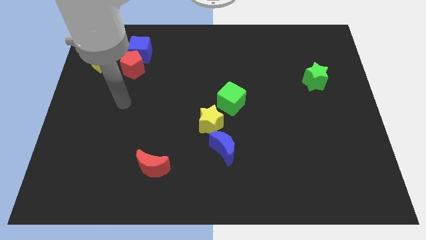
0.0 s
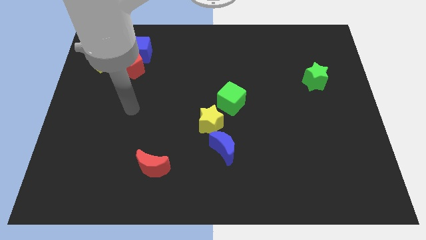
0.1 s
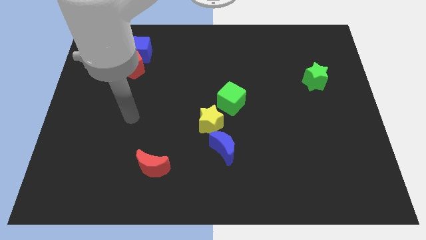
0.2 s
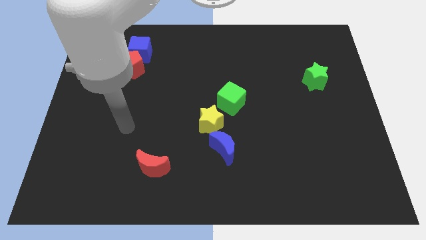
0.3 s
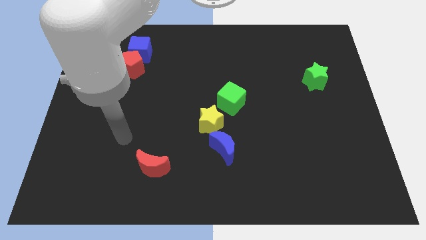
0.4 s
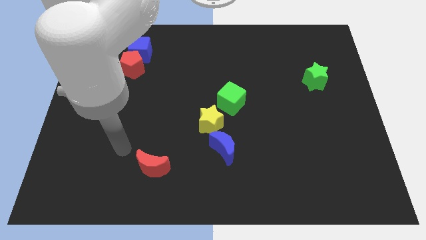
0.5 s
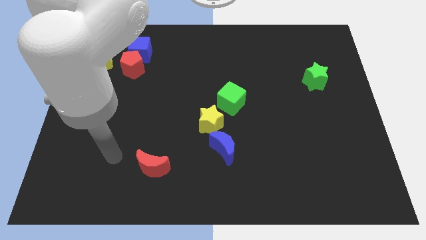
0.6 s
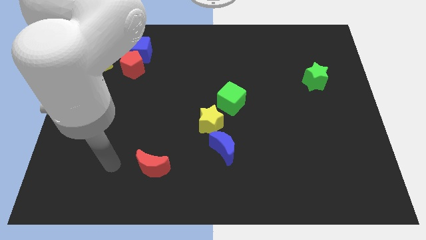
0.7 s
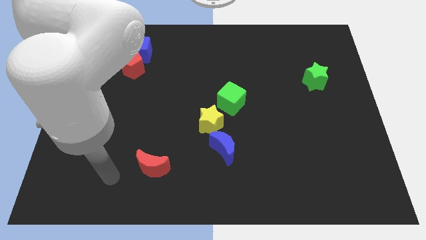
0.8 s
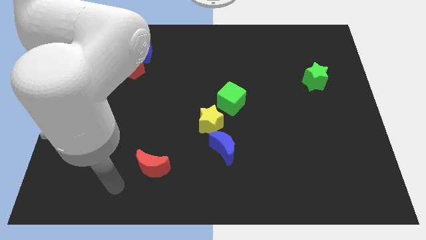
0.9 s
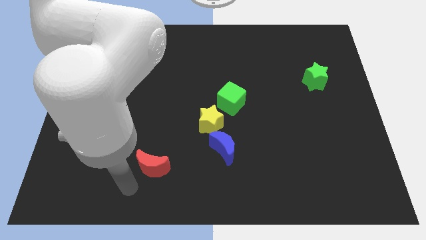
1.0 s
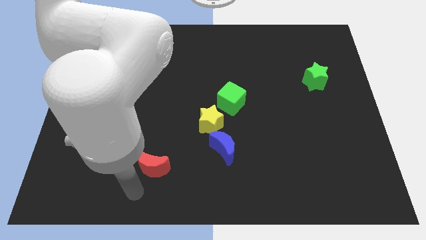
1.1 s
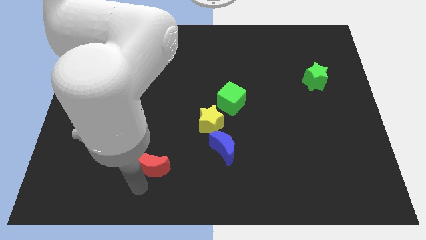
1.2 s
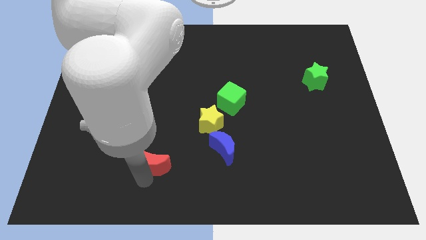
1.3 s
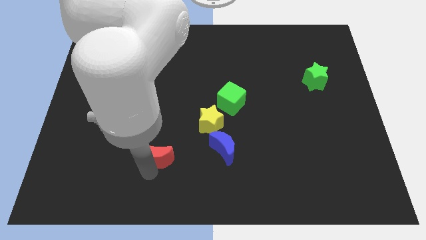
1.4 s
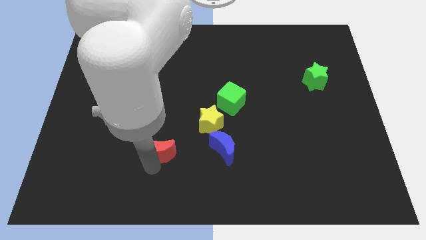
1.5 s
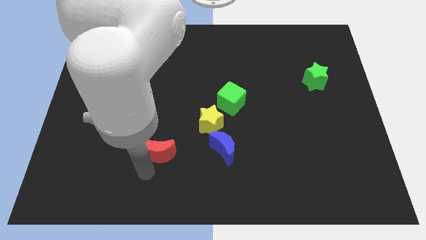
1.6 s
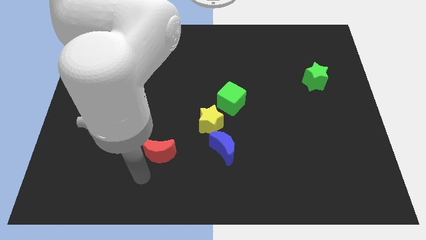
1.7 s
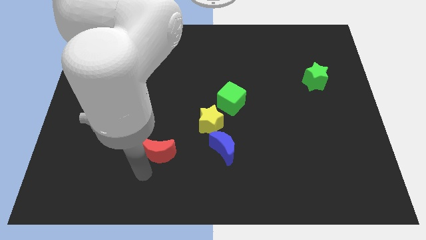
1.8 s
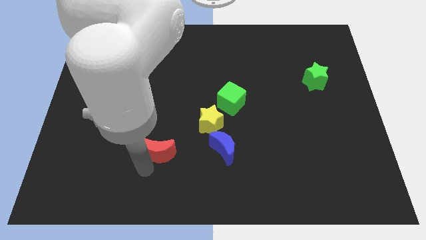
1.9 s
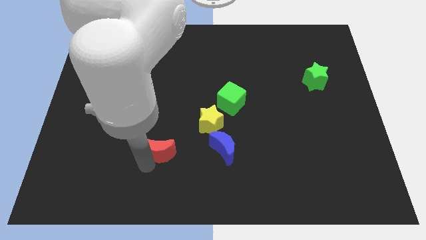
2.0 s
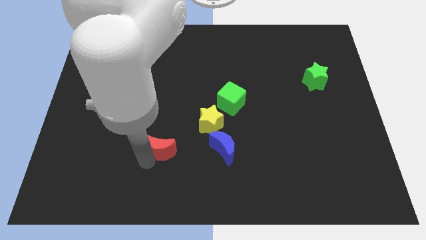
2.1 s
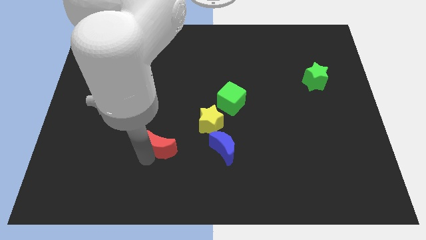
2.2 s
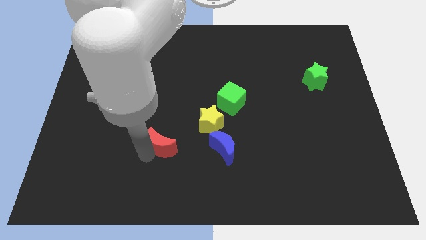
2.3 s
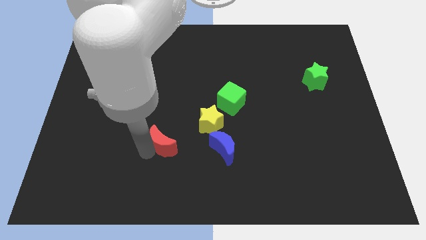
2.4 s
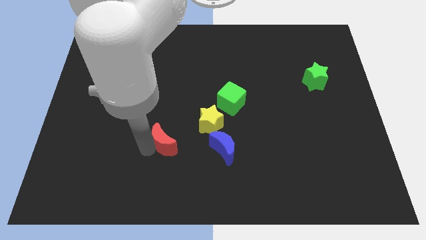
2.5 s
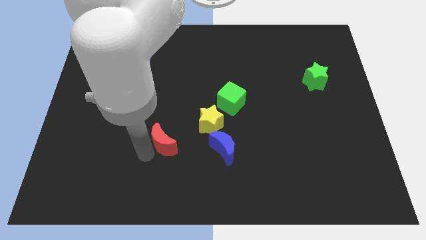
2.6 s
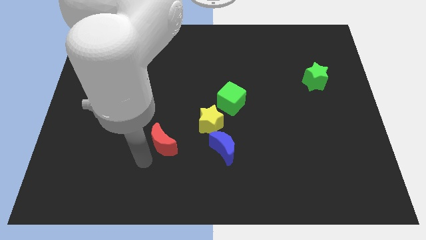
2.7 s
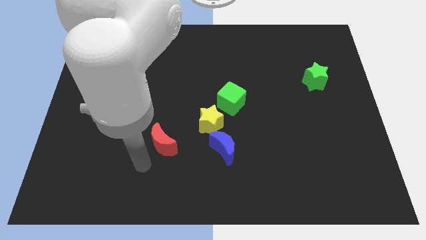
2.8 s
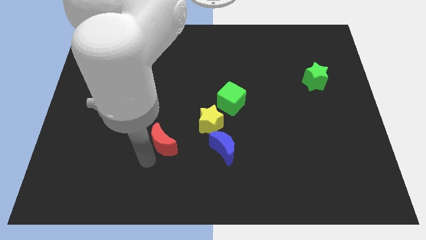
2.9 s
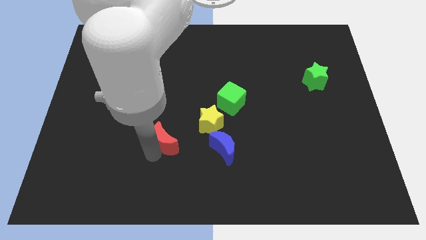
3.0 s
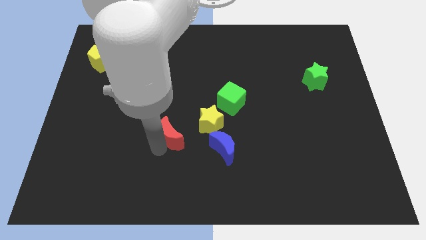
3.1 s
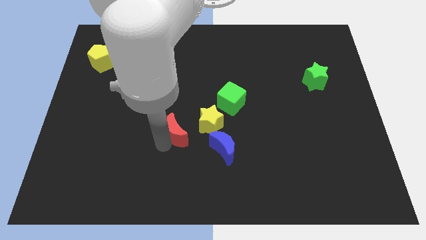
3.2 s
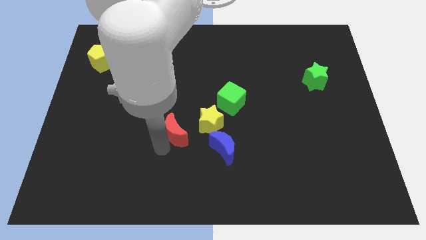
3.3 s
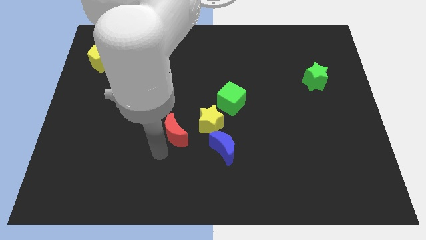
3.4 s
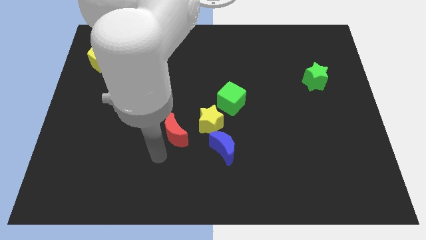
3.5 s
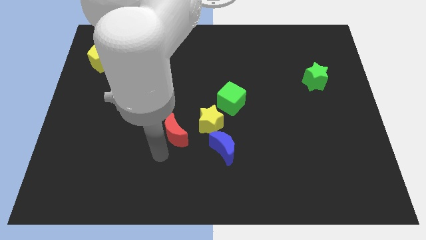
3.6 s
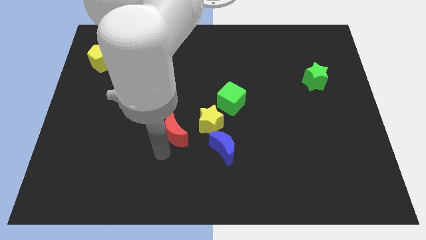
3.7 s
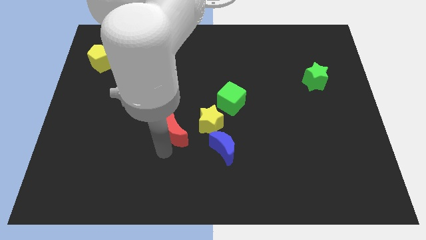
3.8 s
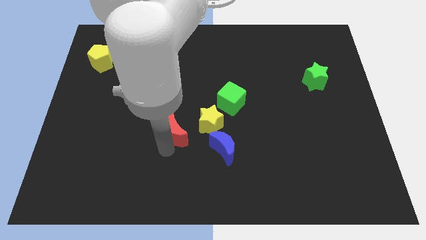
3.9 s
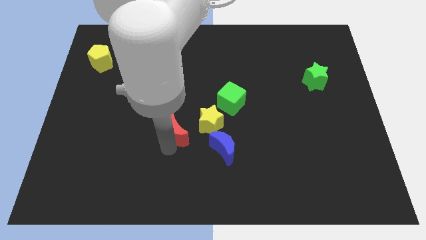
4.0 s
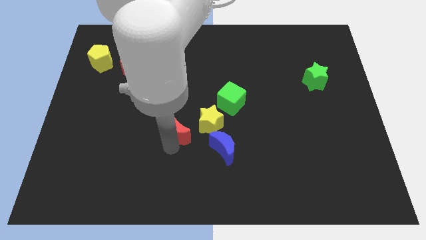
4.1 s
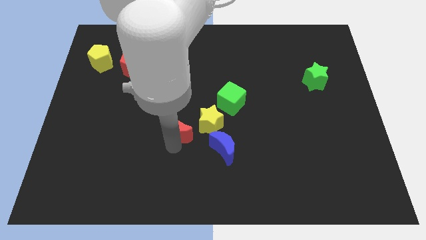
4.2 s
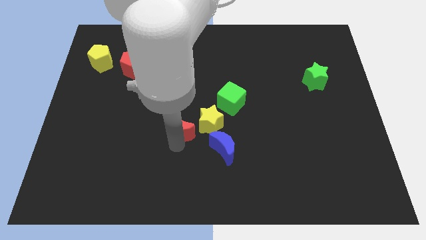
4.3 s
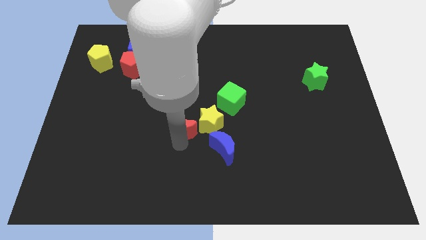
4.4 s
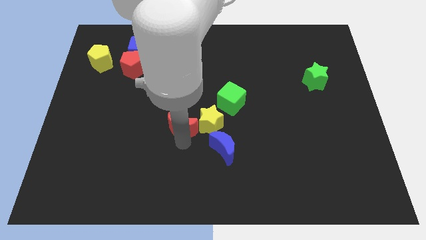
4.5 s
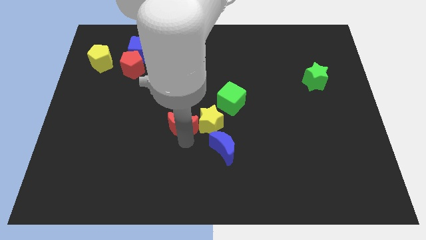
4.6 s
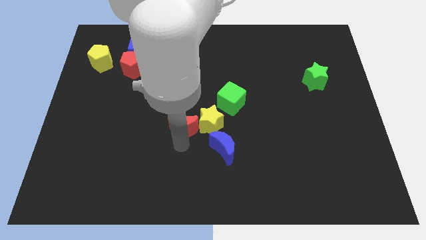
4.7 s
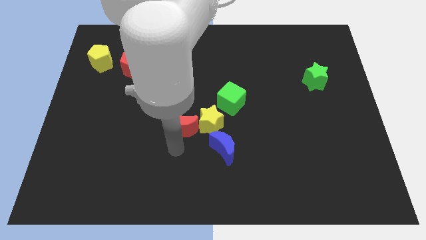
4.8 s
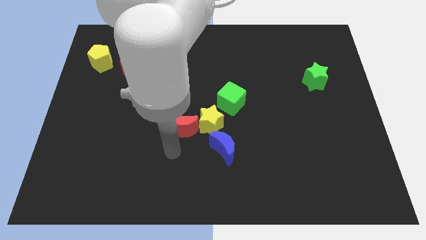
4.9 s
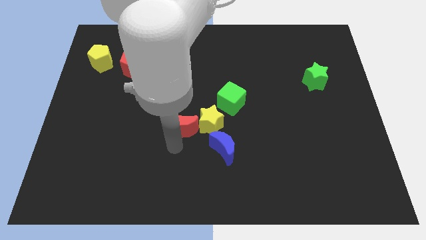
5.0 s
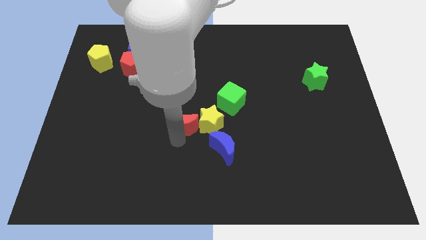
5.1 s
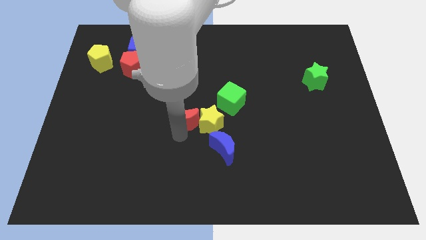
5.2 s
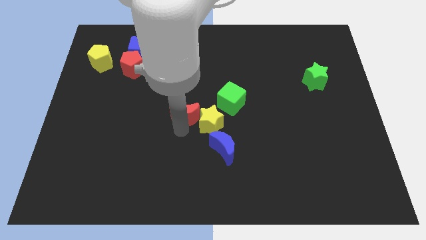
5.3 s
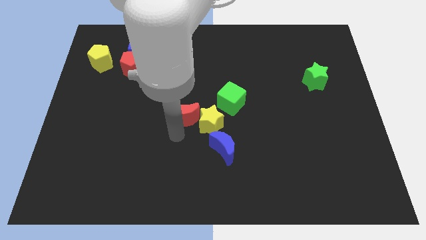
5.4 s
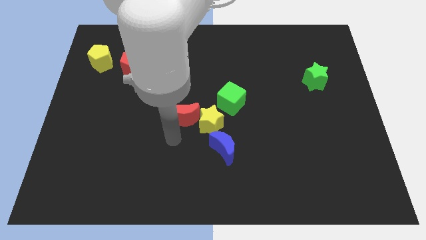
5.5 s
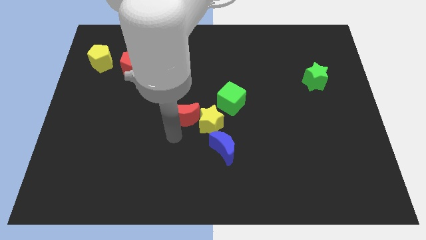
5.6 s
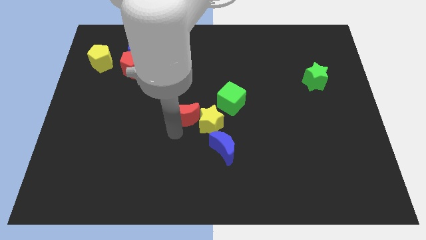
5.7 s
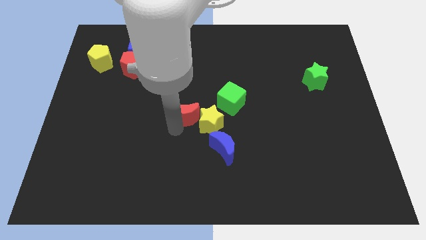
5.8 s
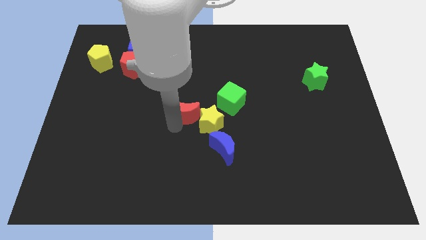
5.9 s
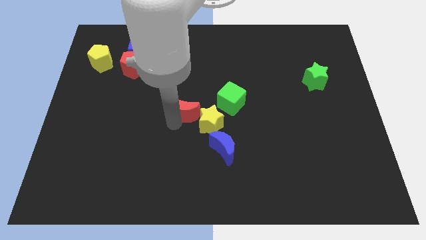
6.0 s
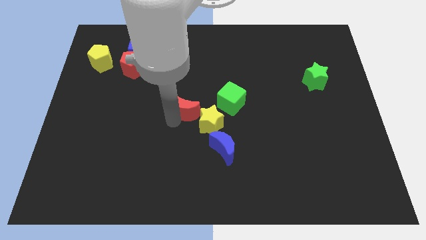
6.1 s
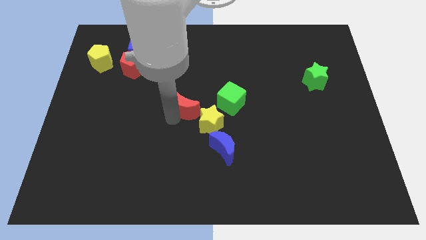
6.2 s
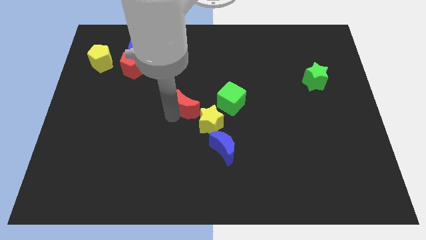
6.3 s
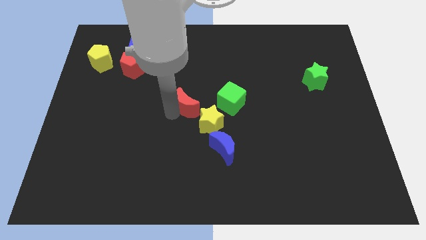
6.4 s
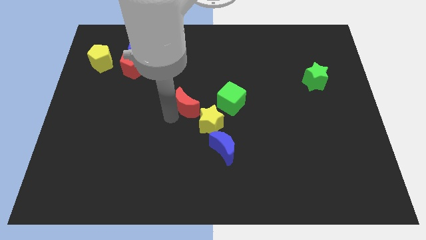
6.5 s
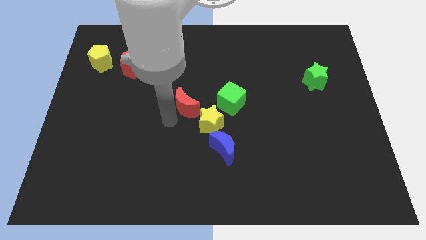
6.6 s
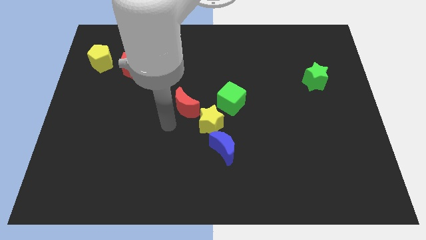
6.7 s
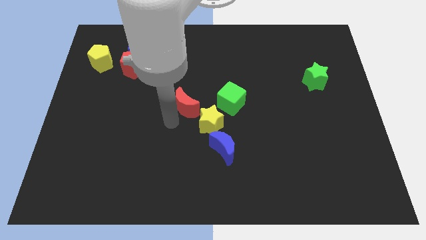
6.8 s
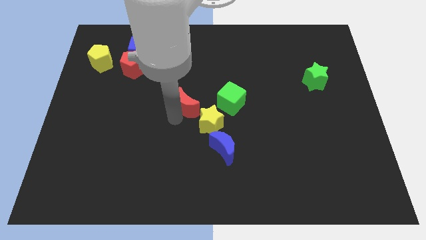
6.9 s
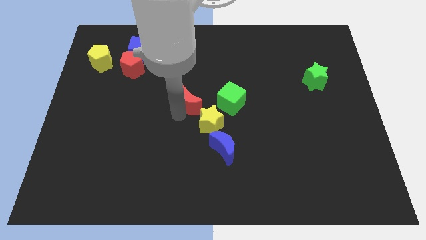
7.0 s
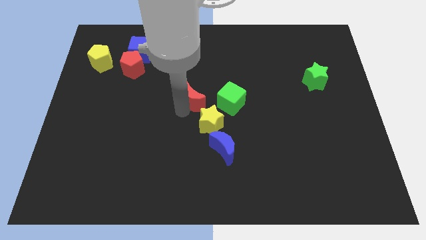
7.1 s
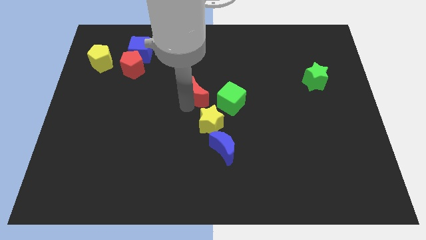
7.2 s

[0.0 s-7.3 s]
slide the red moon to the top left of the green cube
